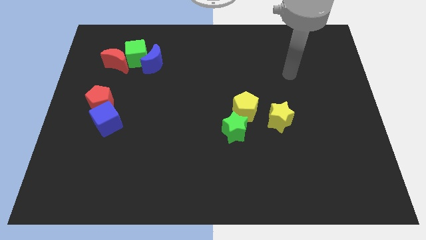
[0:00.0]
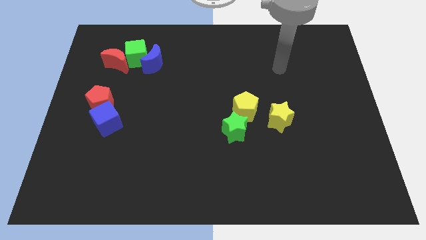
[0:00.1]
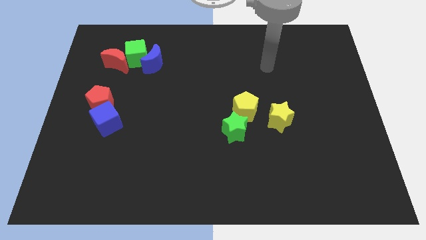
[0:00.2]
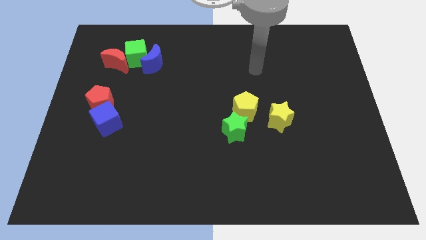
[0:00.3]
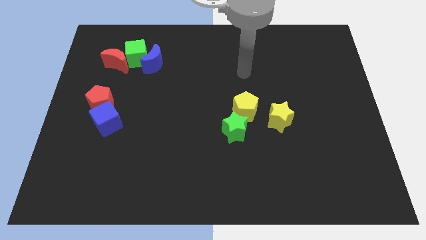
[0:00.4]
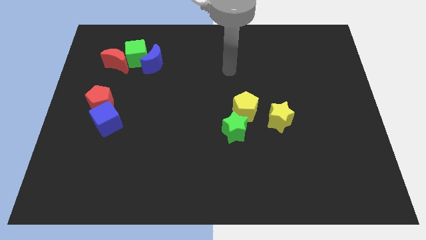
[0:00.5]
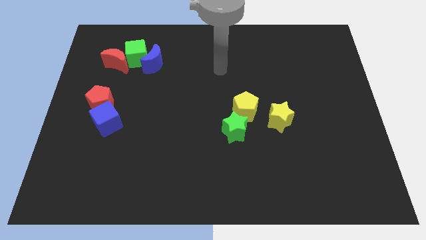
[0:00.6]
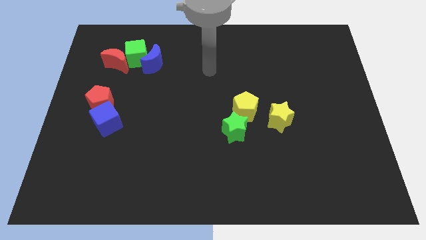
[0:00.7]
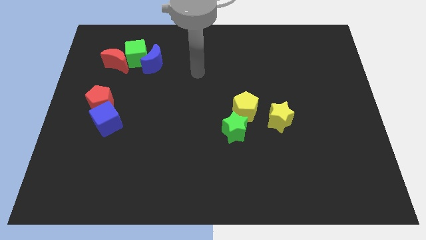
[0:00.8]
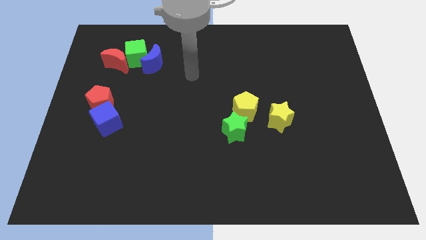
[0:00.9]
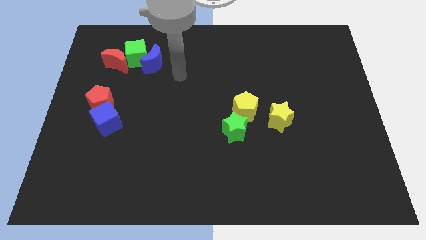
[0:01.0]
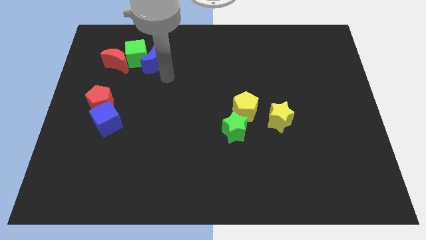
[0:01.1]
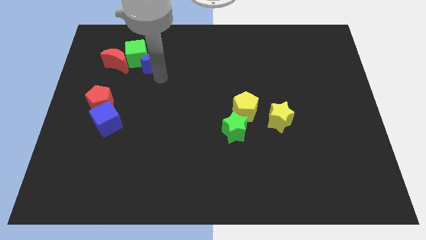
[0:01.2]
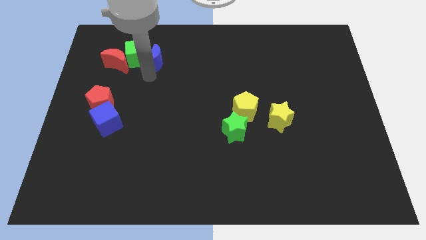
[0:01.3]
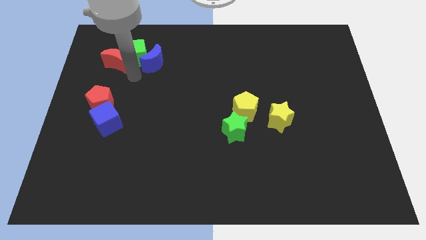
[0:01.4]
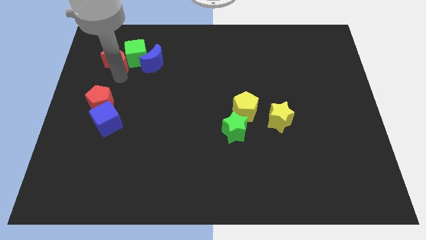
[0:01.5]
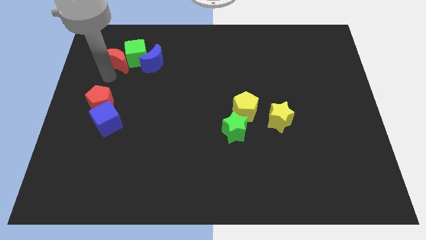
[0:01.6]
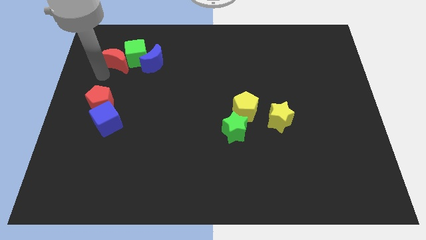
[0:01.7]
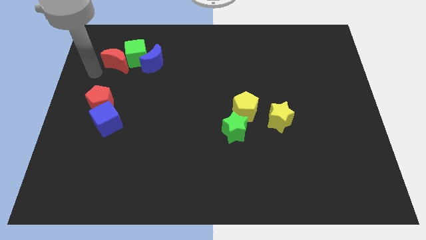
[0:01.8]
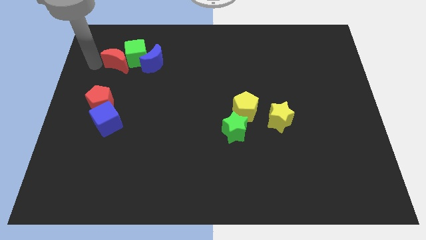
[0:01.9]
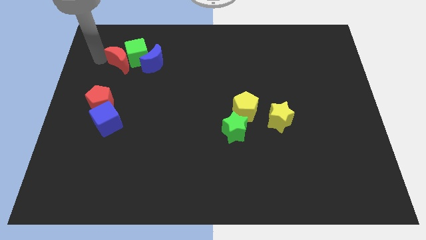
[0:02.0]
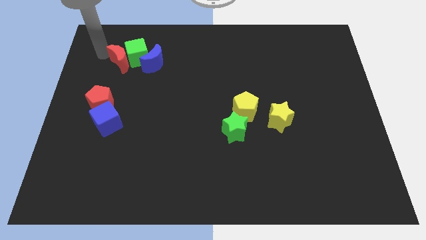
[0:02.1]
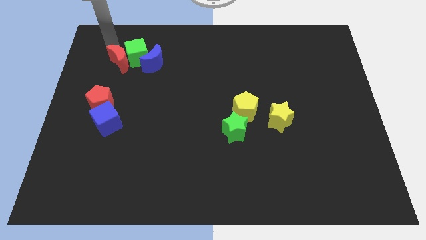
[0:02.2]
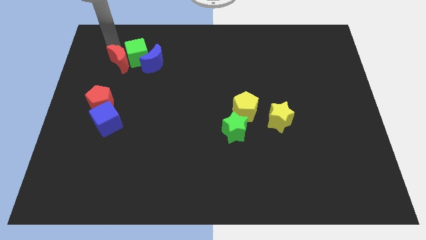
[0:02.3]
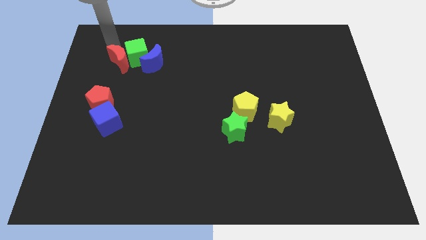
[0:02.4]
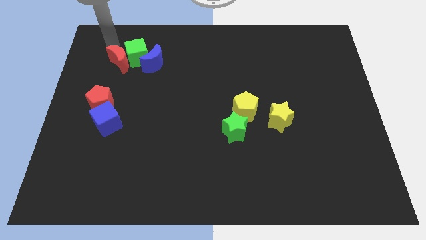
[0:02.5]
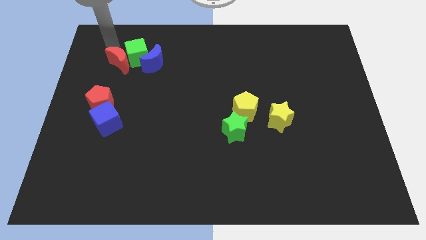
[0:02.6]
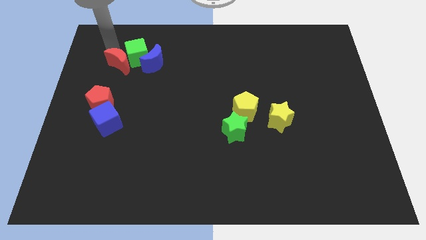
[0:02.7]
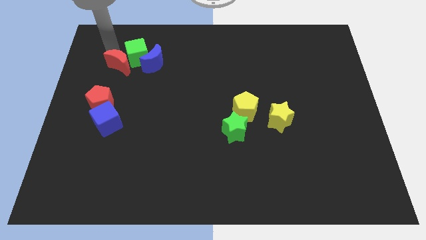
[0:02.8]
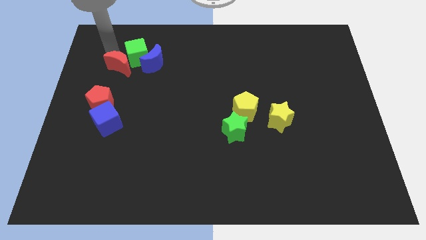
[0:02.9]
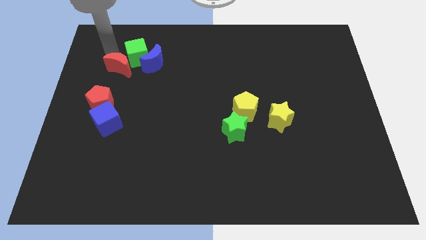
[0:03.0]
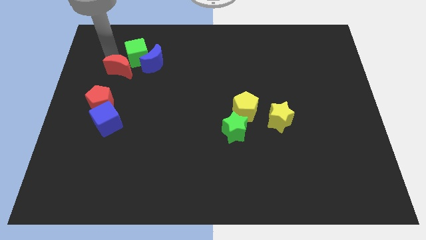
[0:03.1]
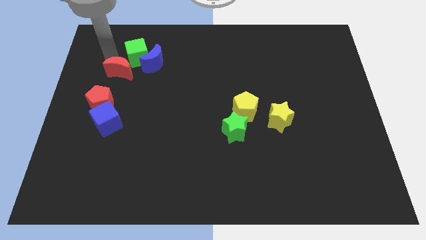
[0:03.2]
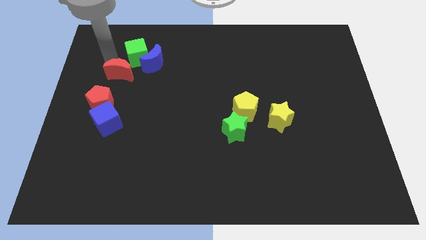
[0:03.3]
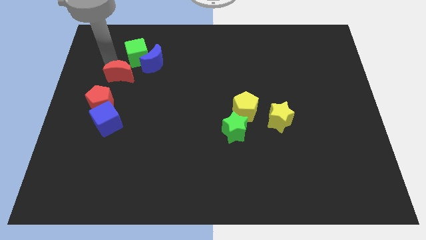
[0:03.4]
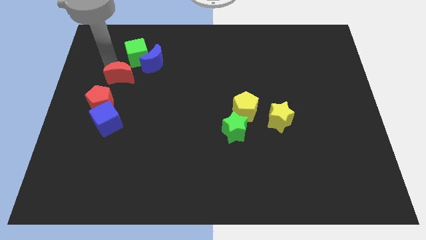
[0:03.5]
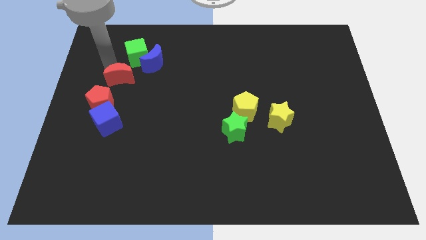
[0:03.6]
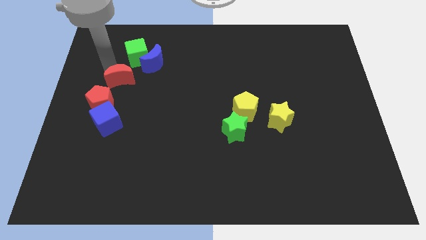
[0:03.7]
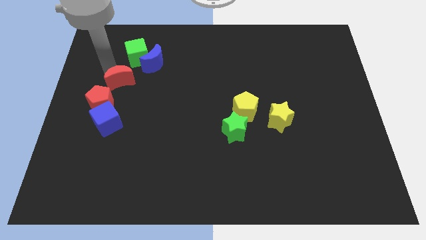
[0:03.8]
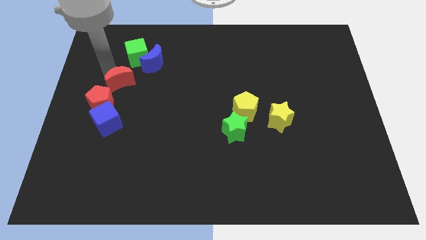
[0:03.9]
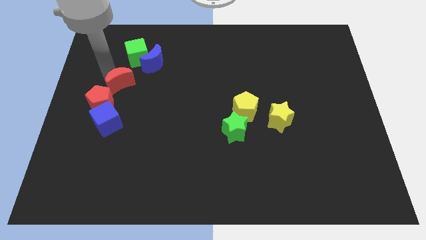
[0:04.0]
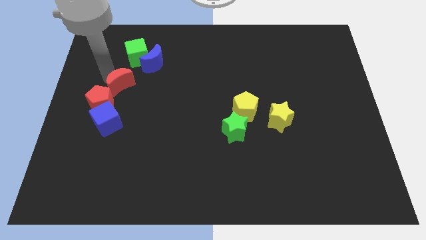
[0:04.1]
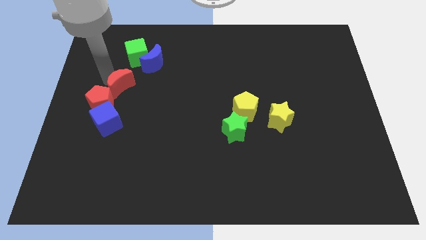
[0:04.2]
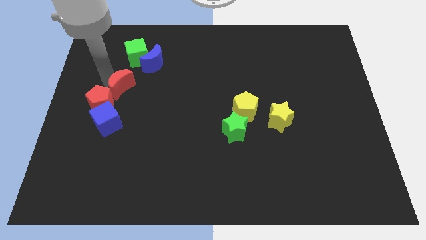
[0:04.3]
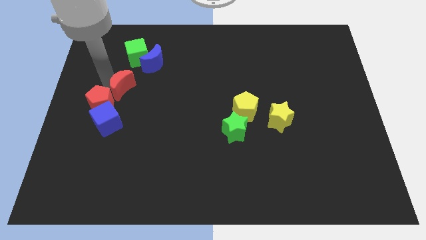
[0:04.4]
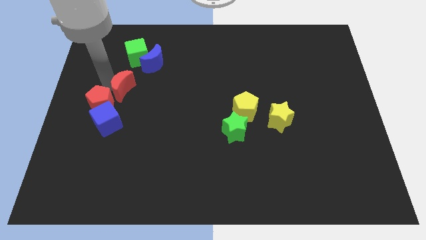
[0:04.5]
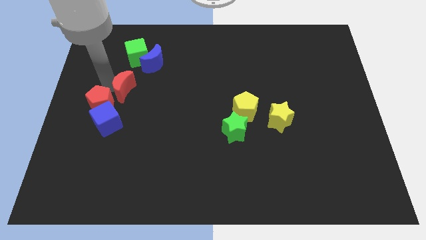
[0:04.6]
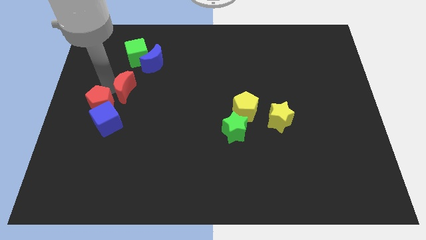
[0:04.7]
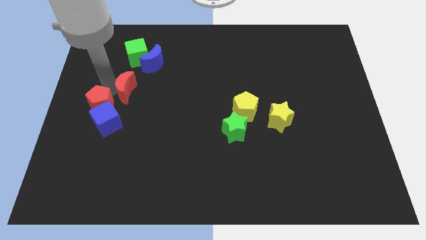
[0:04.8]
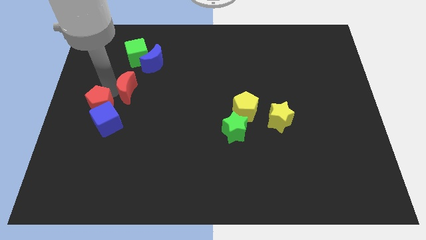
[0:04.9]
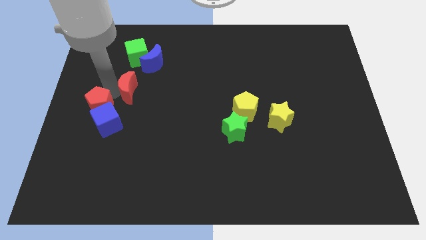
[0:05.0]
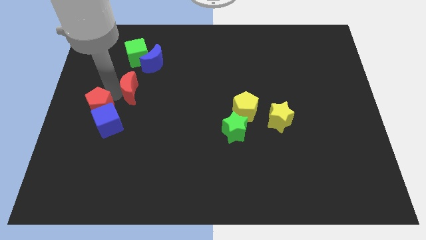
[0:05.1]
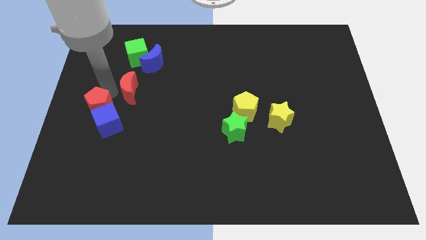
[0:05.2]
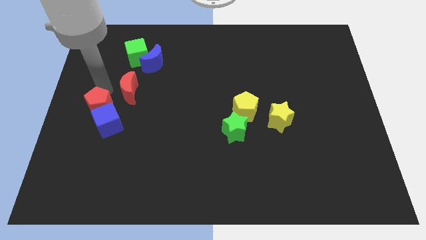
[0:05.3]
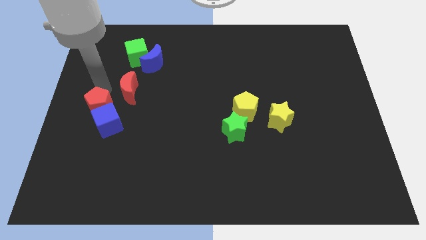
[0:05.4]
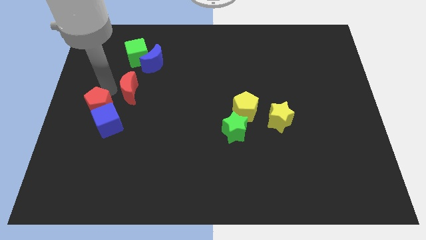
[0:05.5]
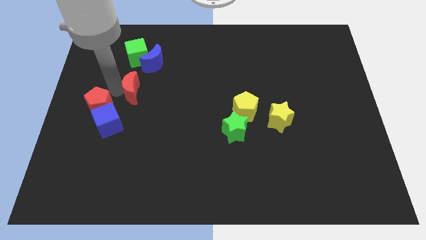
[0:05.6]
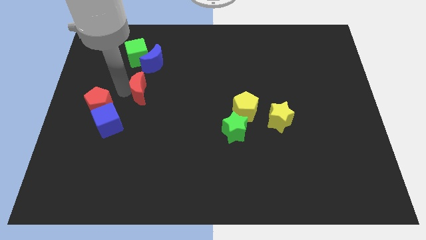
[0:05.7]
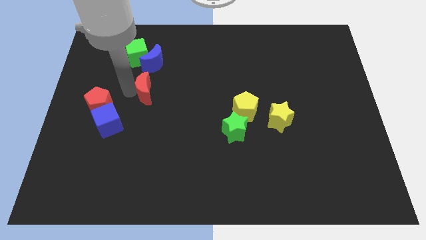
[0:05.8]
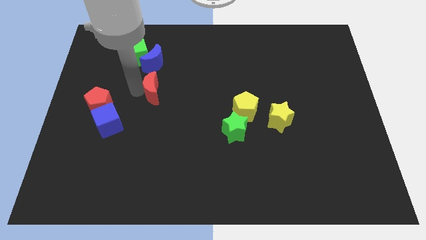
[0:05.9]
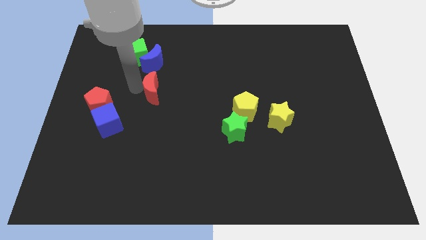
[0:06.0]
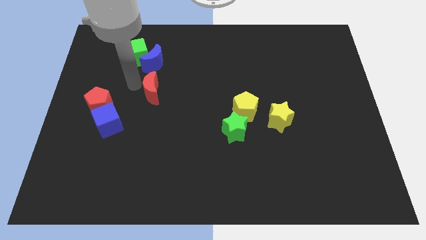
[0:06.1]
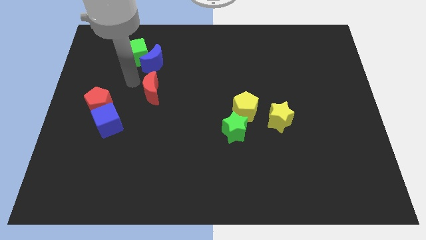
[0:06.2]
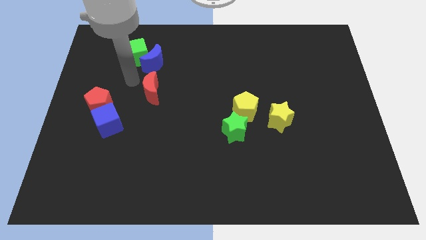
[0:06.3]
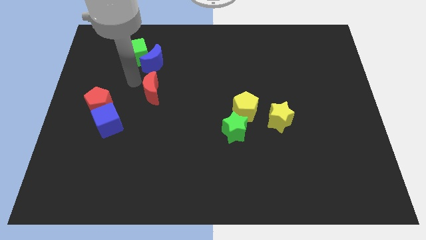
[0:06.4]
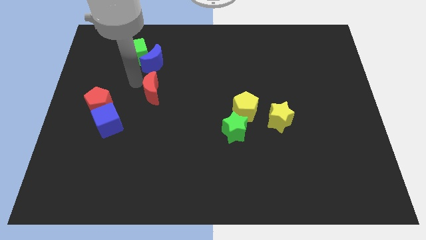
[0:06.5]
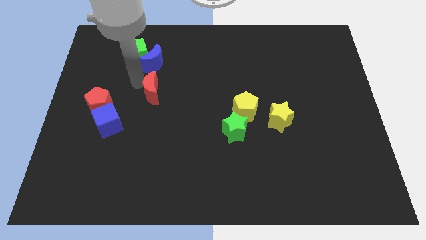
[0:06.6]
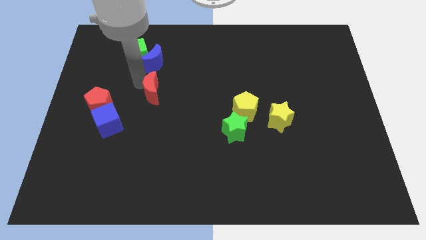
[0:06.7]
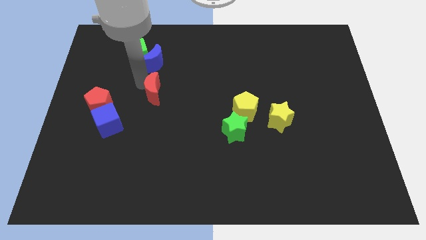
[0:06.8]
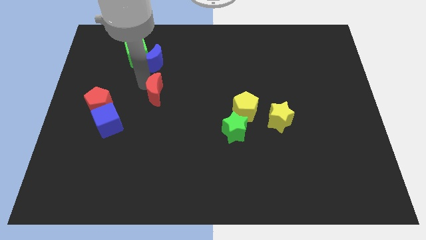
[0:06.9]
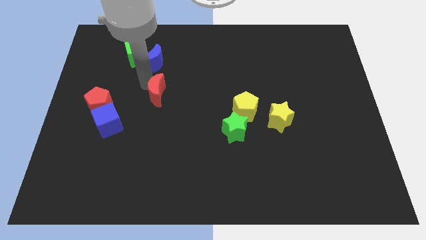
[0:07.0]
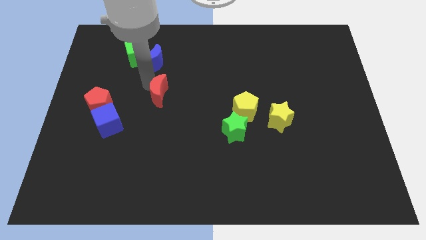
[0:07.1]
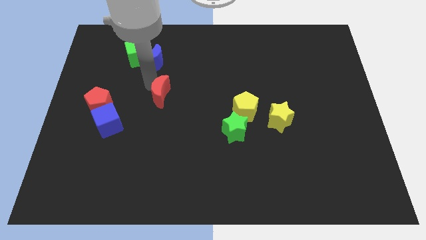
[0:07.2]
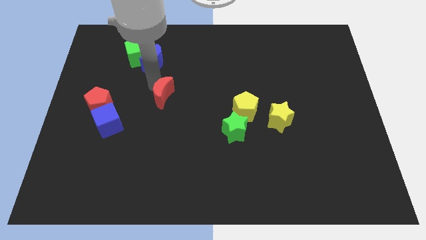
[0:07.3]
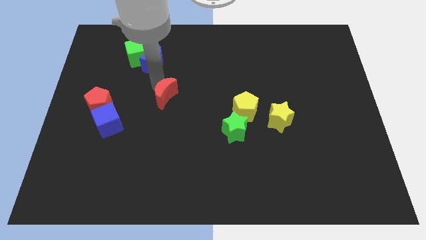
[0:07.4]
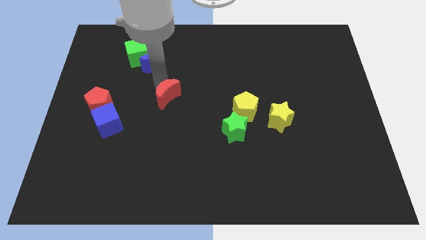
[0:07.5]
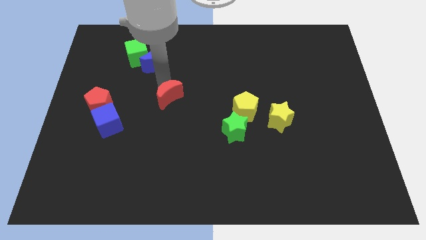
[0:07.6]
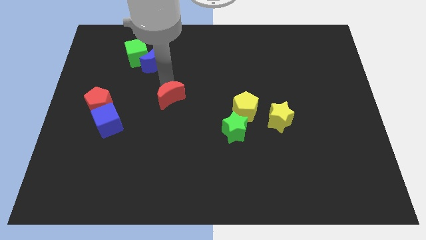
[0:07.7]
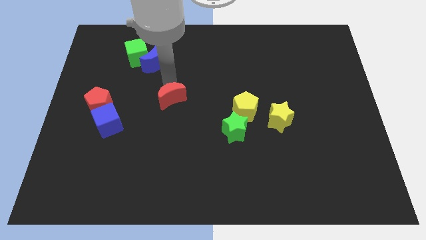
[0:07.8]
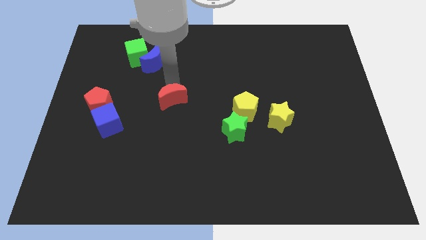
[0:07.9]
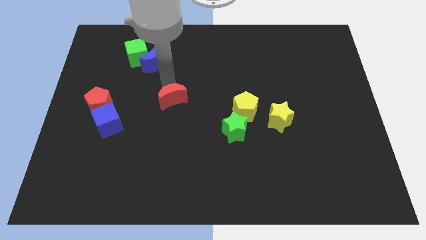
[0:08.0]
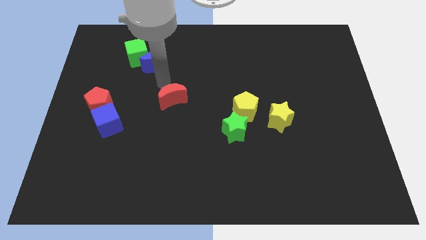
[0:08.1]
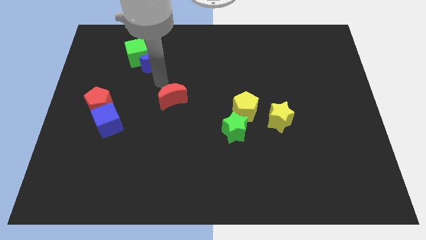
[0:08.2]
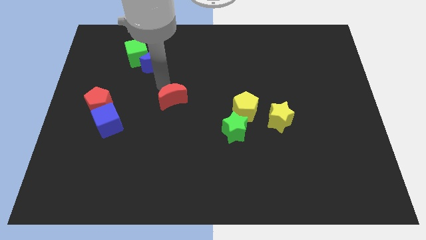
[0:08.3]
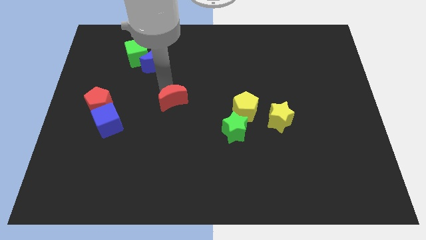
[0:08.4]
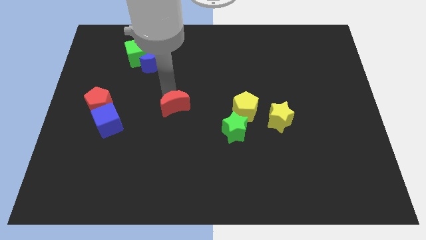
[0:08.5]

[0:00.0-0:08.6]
slide the red moon downwards and right
